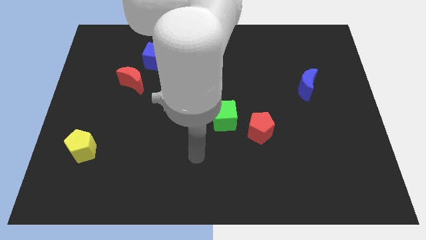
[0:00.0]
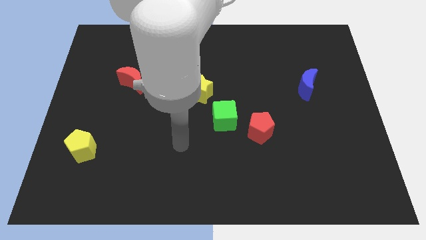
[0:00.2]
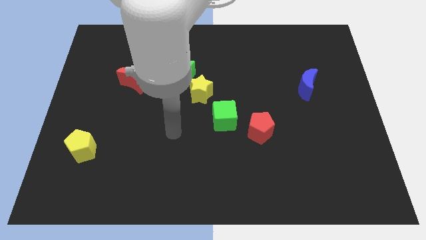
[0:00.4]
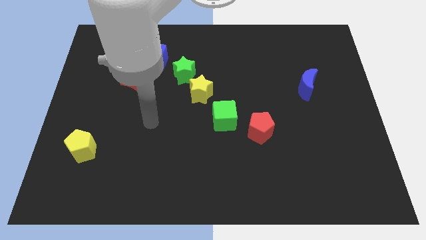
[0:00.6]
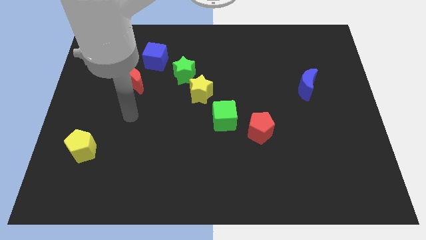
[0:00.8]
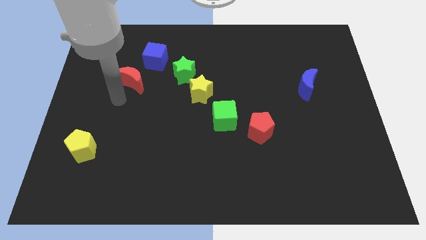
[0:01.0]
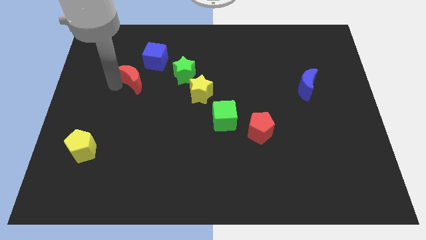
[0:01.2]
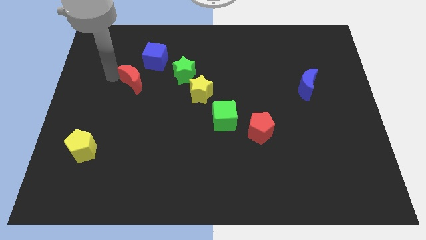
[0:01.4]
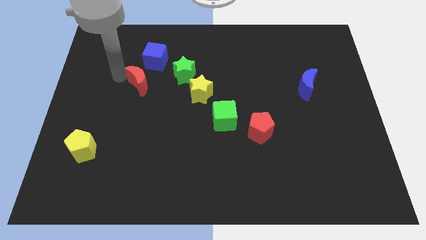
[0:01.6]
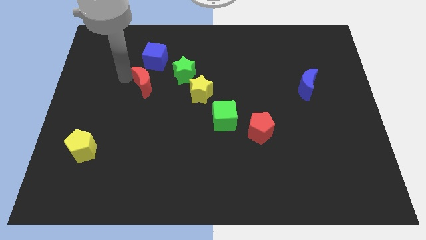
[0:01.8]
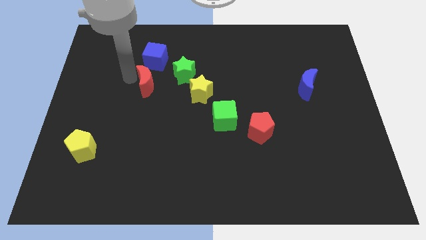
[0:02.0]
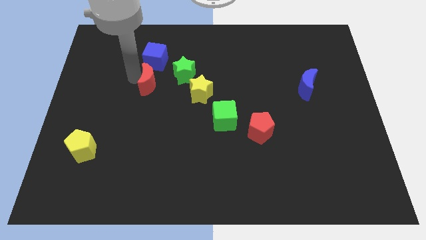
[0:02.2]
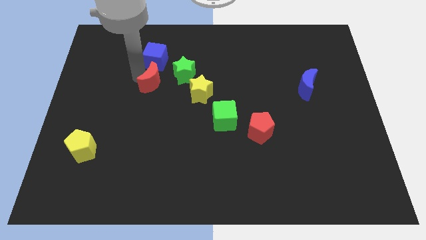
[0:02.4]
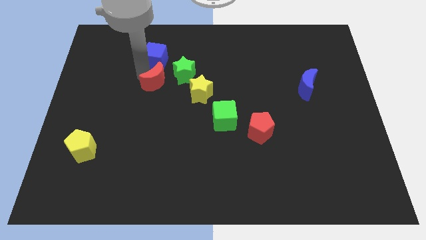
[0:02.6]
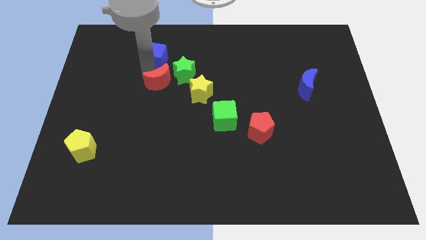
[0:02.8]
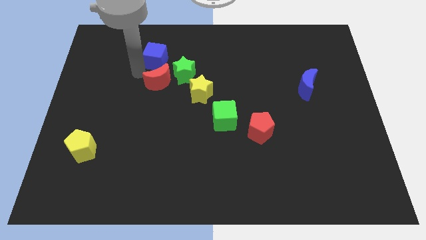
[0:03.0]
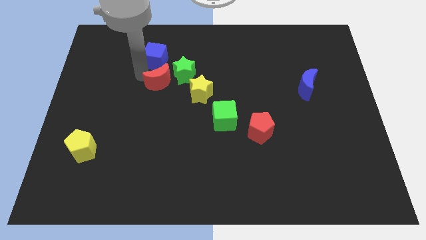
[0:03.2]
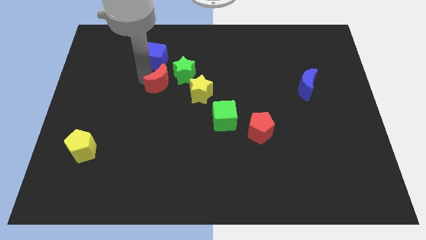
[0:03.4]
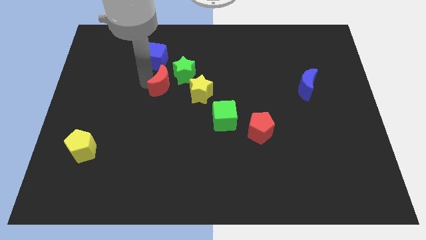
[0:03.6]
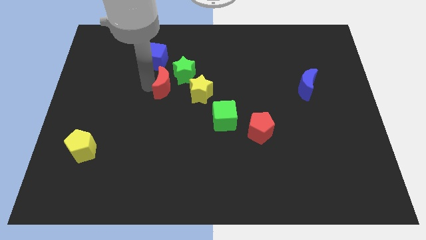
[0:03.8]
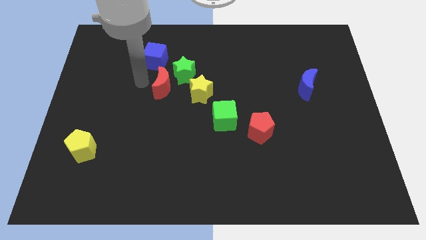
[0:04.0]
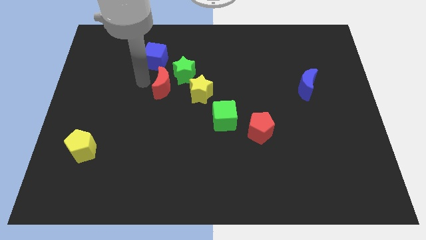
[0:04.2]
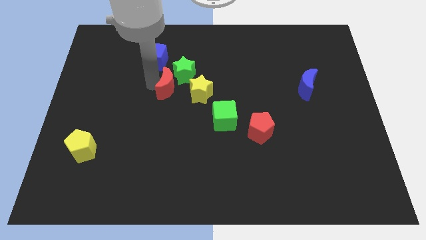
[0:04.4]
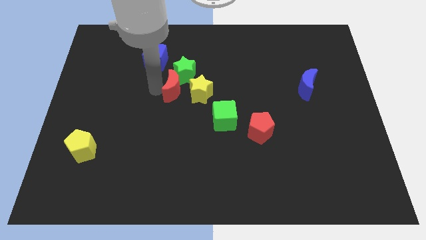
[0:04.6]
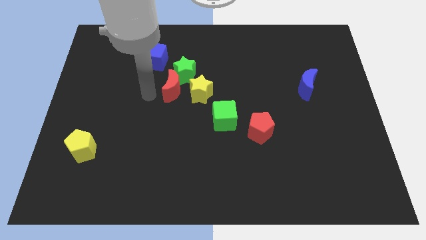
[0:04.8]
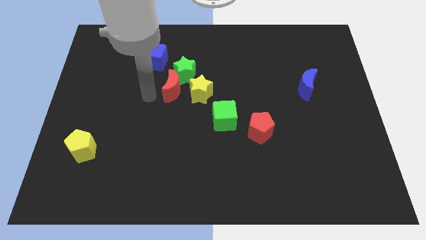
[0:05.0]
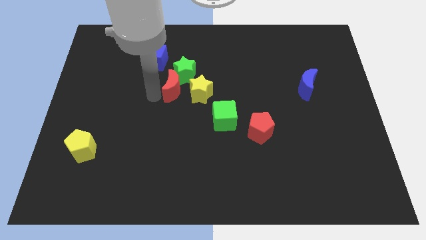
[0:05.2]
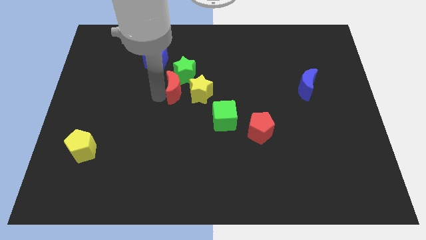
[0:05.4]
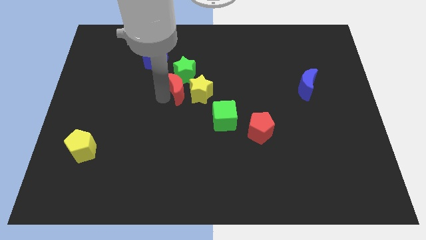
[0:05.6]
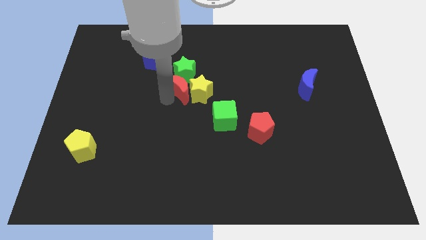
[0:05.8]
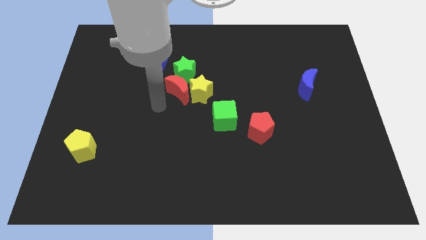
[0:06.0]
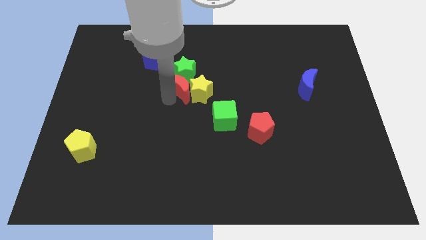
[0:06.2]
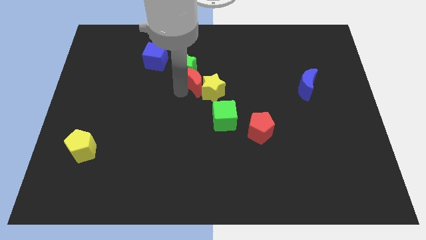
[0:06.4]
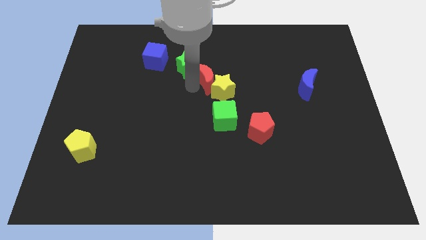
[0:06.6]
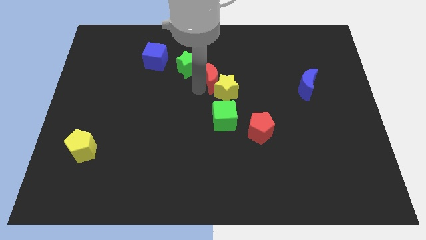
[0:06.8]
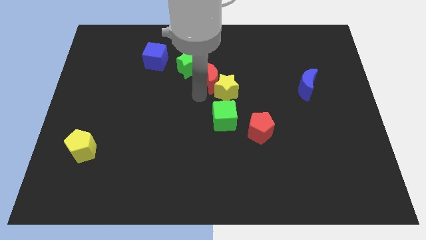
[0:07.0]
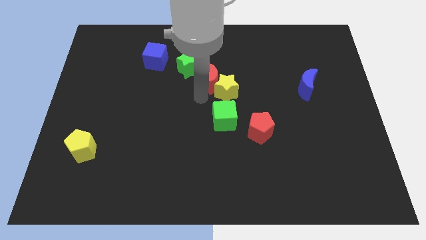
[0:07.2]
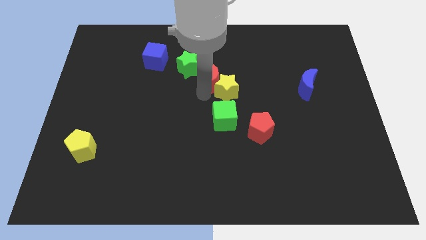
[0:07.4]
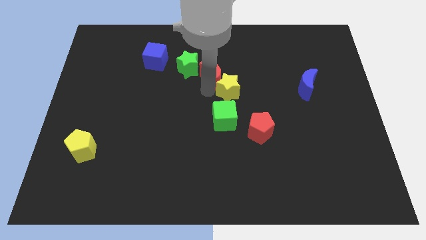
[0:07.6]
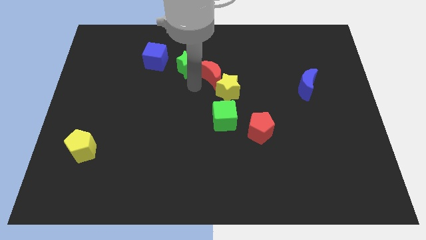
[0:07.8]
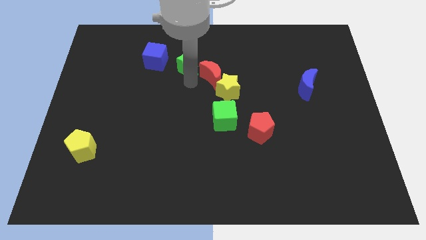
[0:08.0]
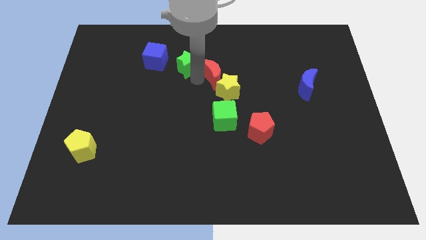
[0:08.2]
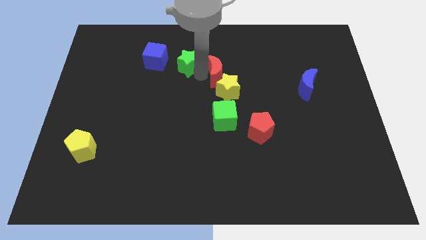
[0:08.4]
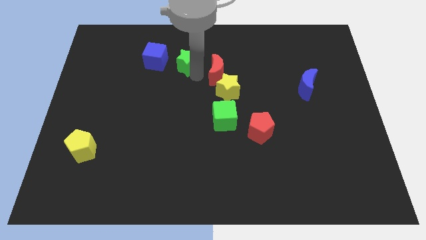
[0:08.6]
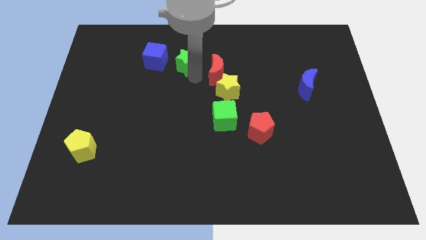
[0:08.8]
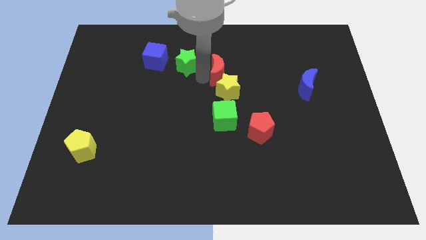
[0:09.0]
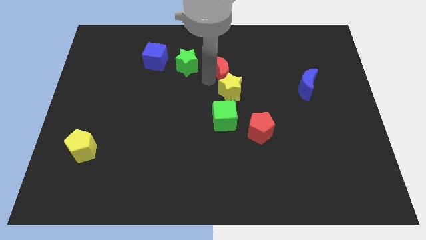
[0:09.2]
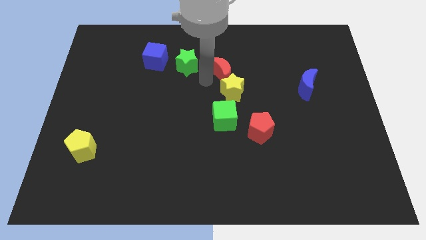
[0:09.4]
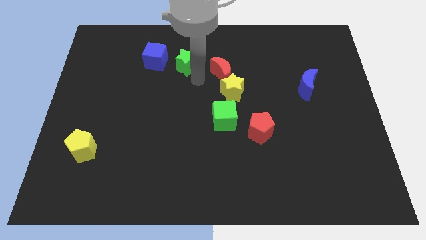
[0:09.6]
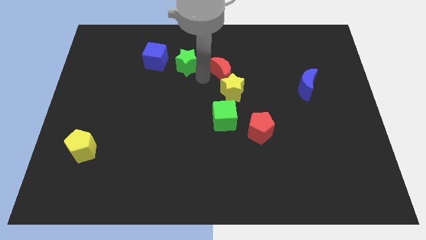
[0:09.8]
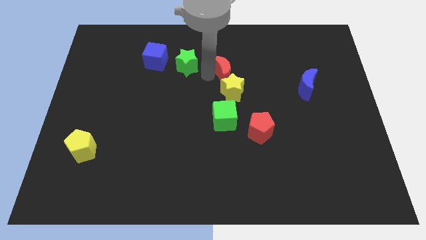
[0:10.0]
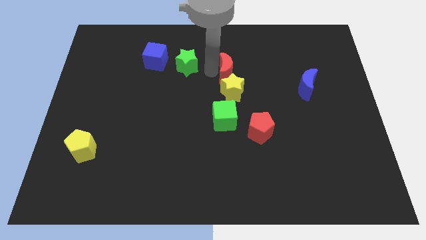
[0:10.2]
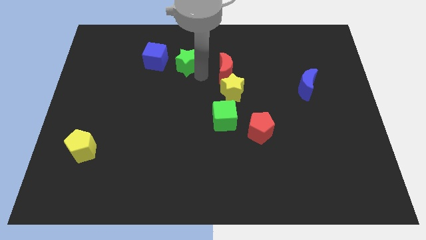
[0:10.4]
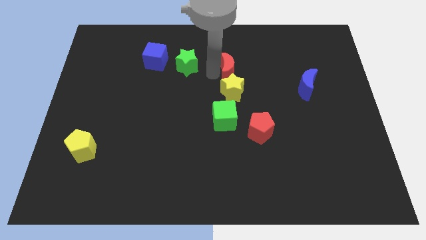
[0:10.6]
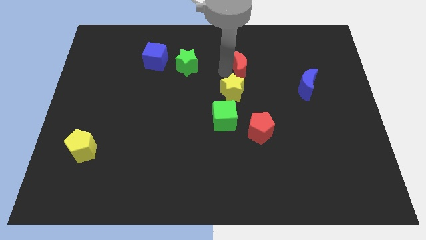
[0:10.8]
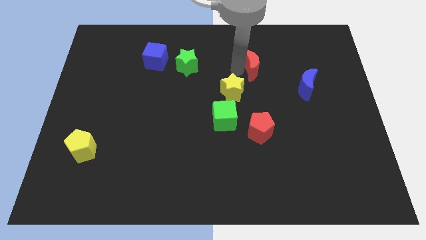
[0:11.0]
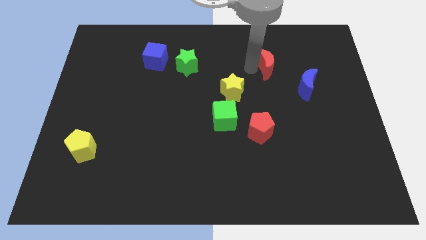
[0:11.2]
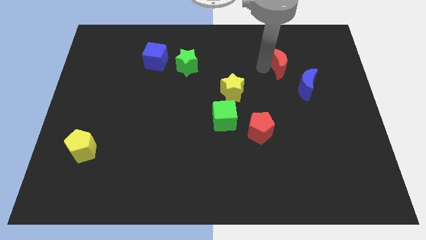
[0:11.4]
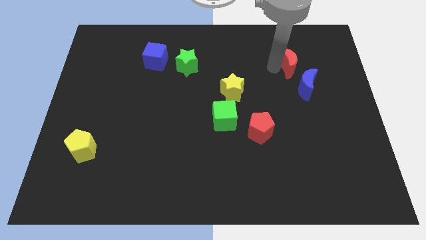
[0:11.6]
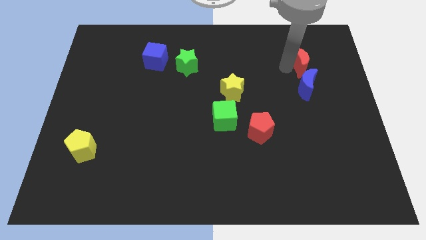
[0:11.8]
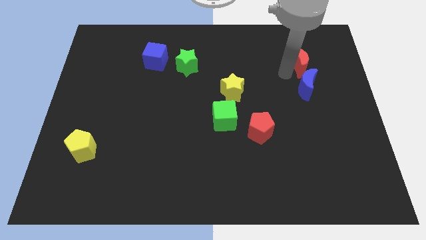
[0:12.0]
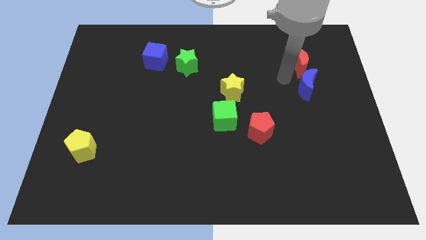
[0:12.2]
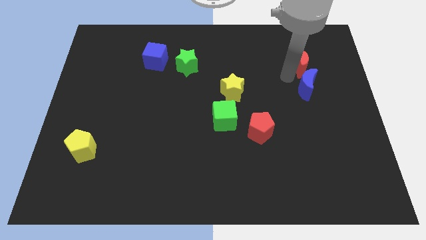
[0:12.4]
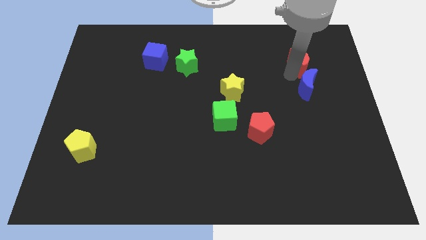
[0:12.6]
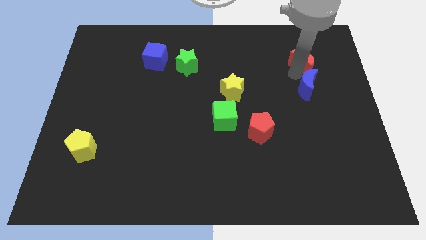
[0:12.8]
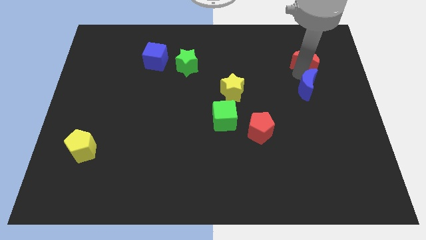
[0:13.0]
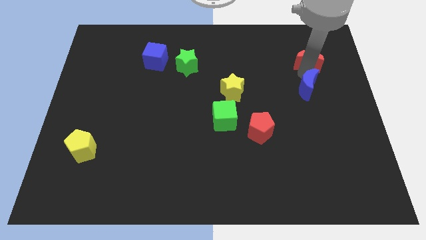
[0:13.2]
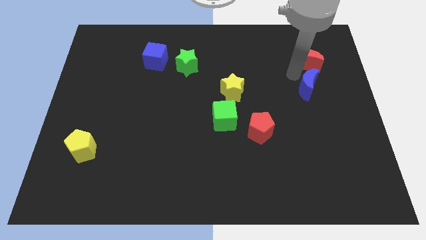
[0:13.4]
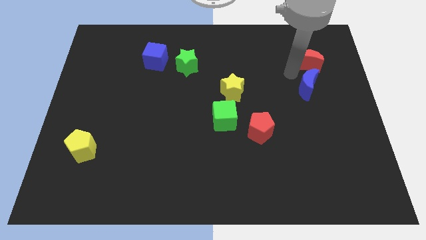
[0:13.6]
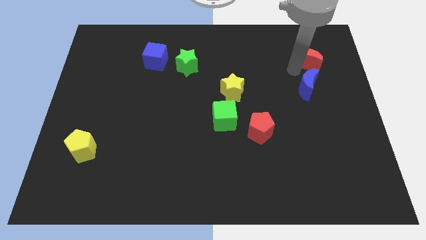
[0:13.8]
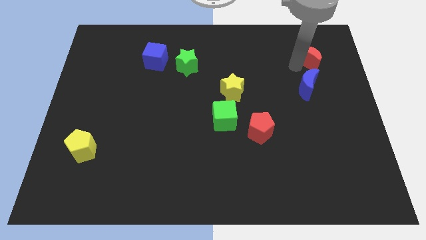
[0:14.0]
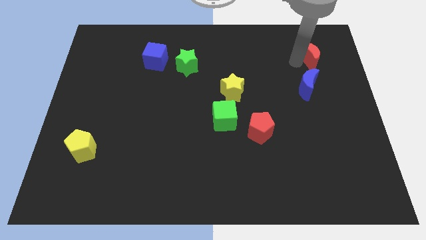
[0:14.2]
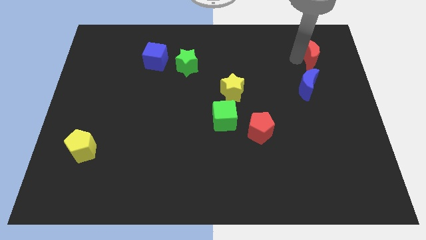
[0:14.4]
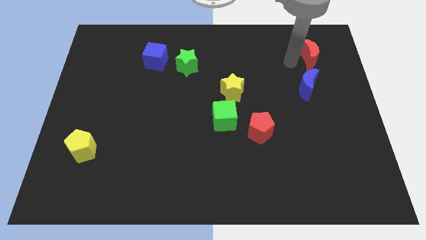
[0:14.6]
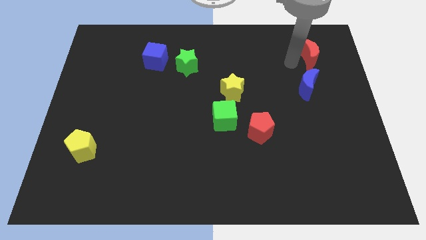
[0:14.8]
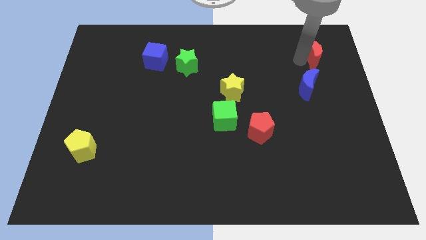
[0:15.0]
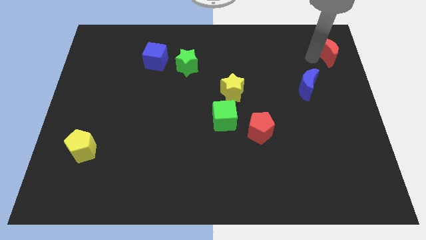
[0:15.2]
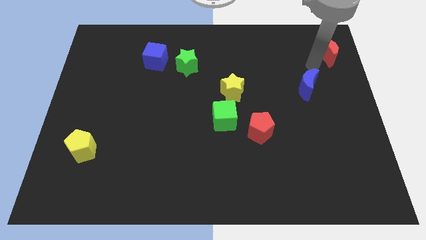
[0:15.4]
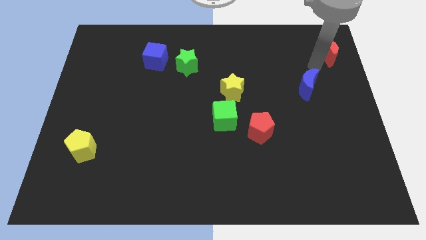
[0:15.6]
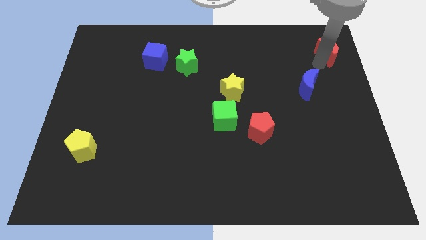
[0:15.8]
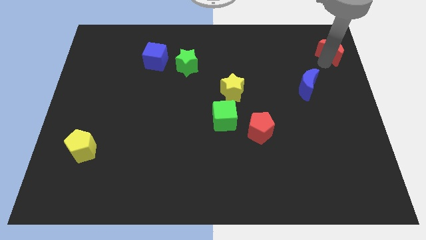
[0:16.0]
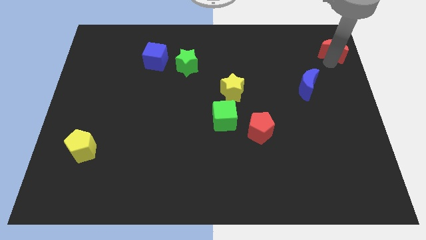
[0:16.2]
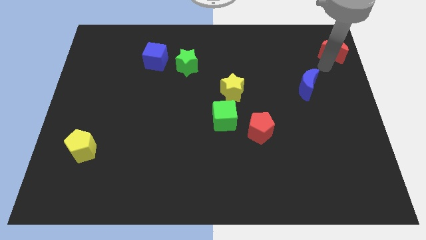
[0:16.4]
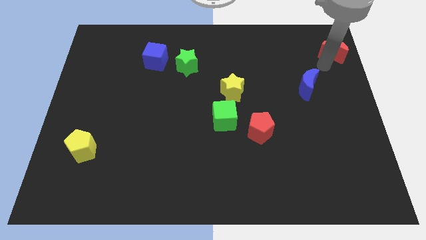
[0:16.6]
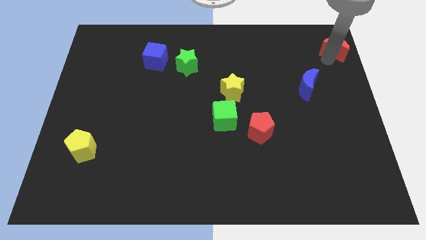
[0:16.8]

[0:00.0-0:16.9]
put the red moon to the top right corner
